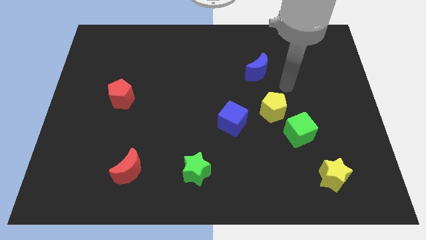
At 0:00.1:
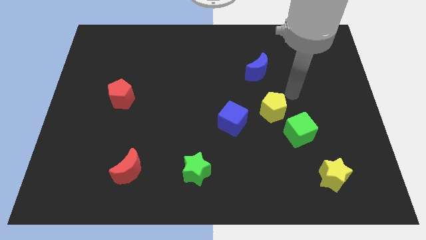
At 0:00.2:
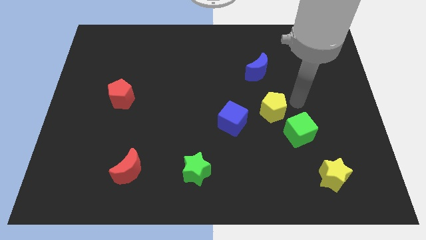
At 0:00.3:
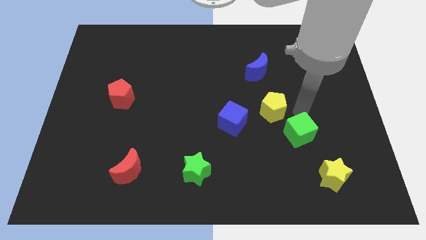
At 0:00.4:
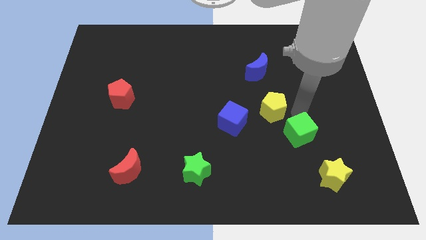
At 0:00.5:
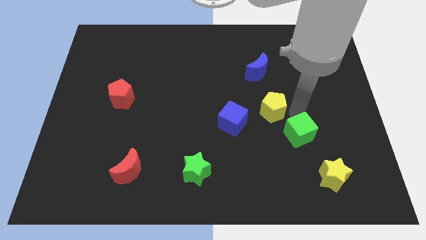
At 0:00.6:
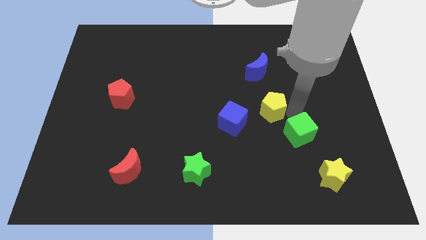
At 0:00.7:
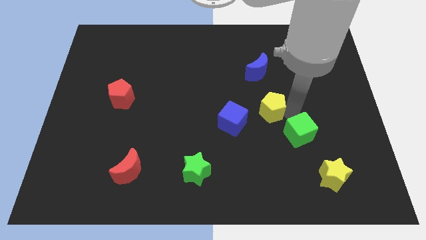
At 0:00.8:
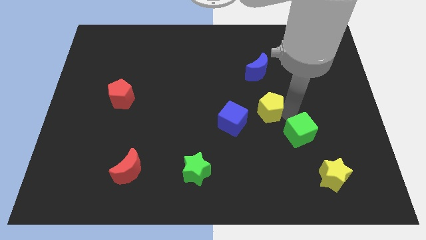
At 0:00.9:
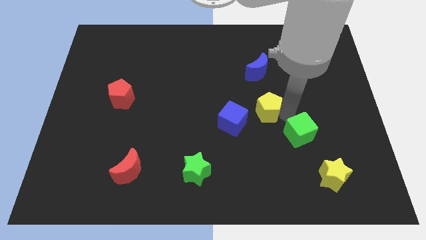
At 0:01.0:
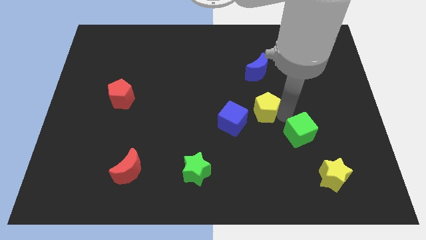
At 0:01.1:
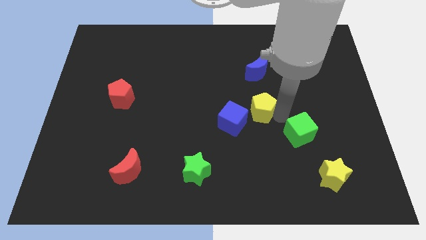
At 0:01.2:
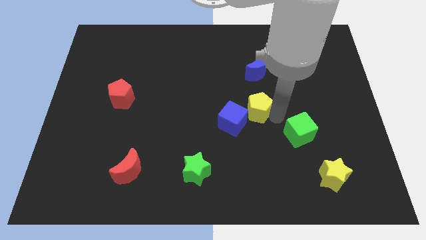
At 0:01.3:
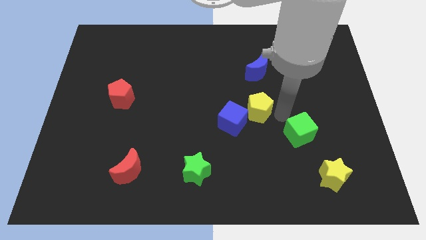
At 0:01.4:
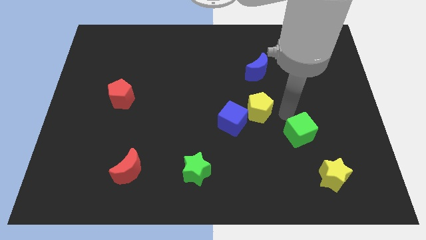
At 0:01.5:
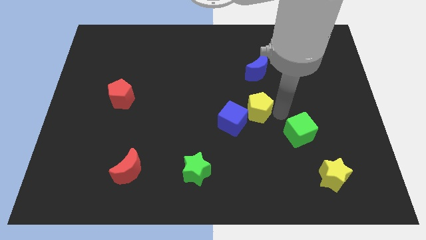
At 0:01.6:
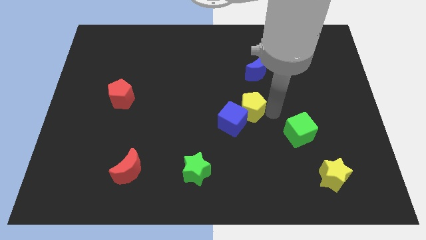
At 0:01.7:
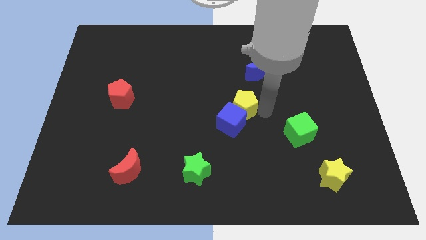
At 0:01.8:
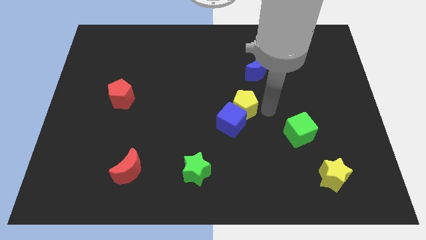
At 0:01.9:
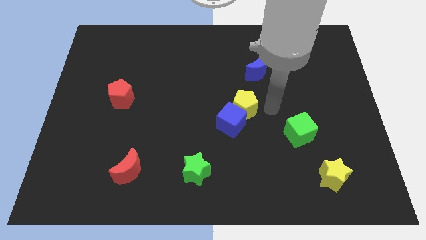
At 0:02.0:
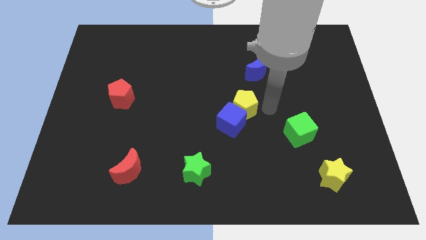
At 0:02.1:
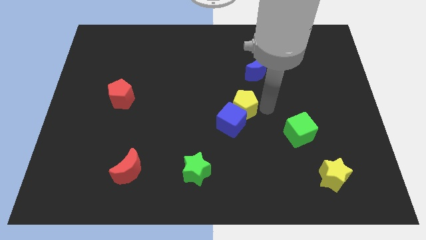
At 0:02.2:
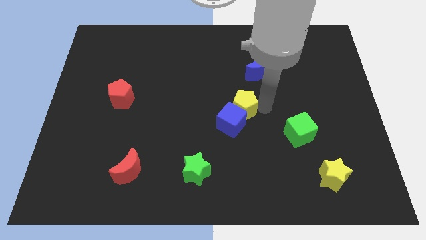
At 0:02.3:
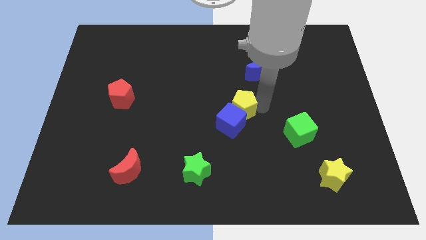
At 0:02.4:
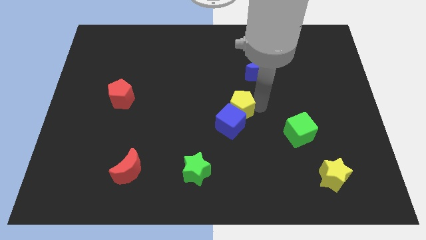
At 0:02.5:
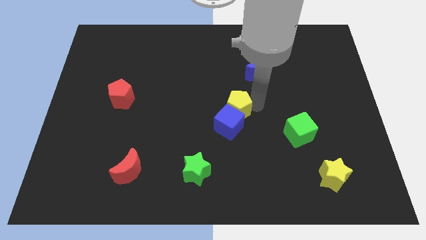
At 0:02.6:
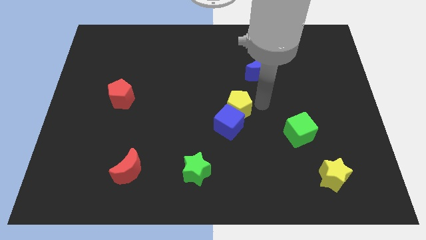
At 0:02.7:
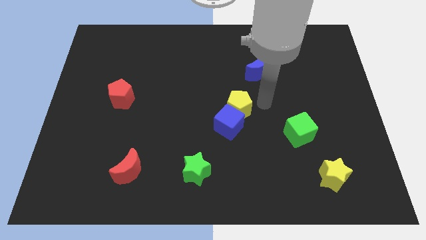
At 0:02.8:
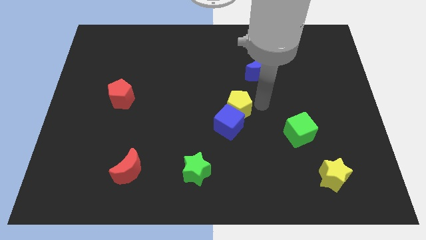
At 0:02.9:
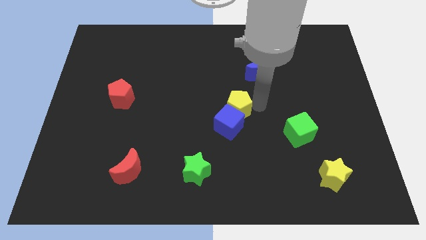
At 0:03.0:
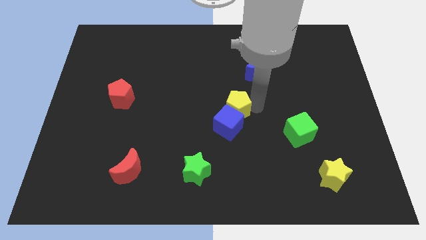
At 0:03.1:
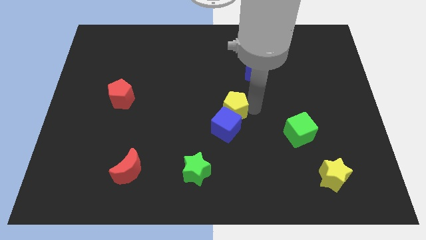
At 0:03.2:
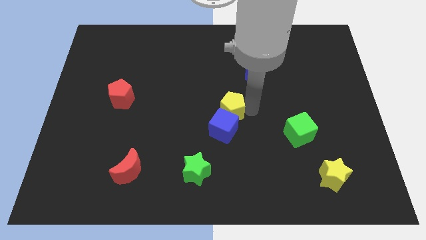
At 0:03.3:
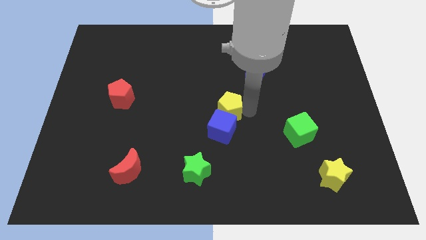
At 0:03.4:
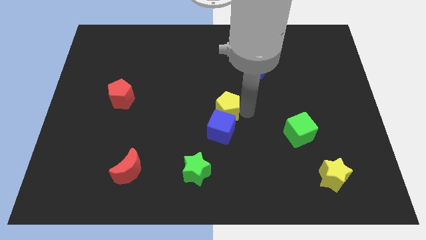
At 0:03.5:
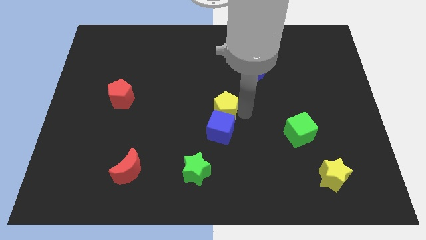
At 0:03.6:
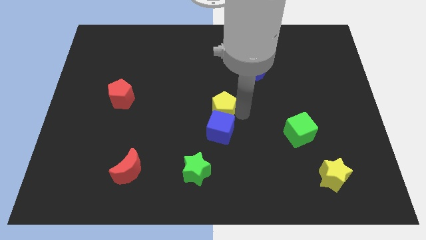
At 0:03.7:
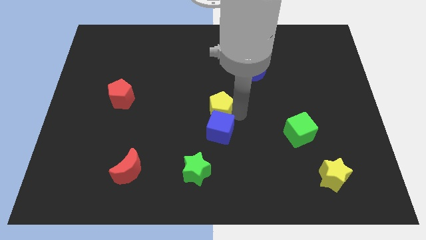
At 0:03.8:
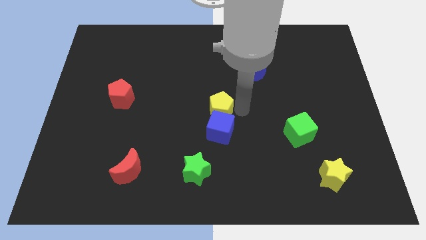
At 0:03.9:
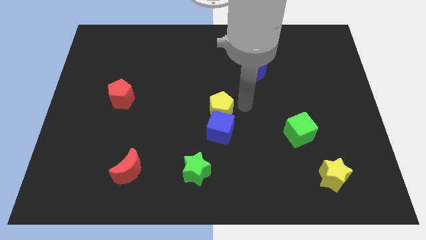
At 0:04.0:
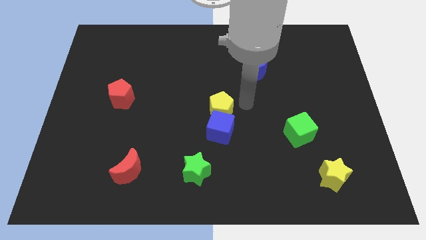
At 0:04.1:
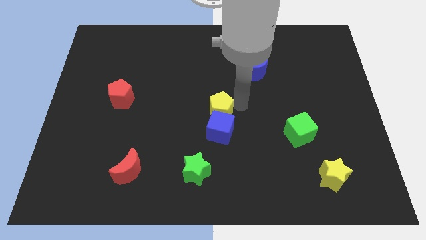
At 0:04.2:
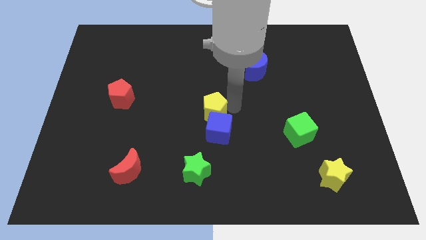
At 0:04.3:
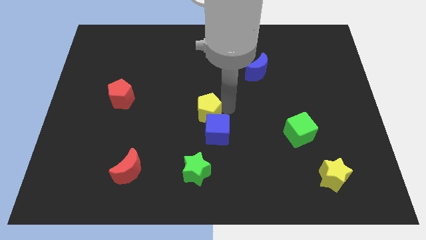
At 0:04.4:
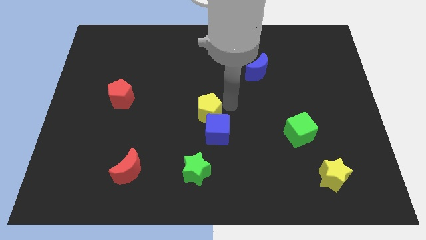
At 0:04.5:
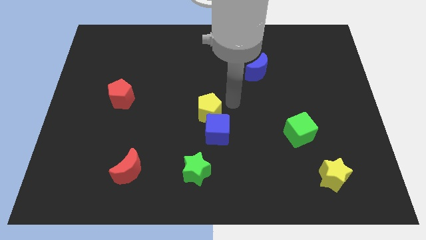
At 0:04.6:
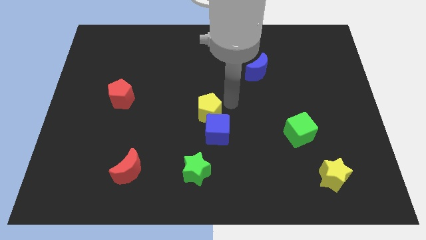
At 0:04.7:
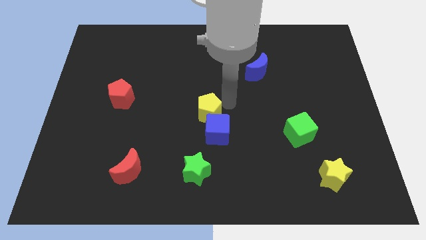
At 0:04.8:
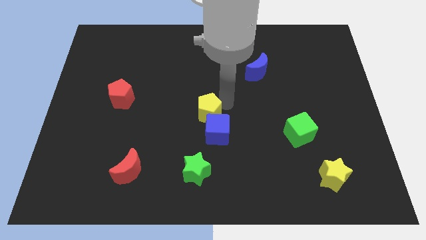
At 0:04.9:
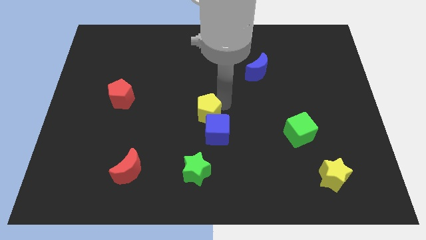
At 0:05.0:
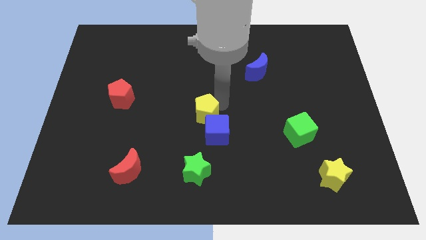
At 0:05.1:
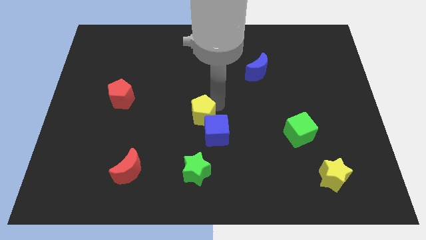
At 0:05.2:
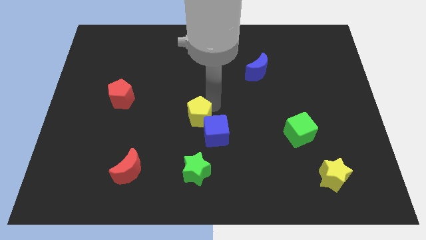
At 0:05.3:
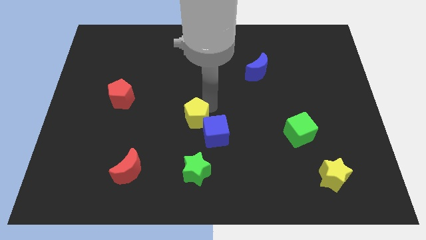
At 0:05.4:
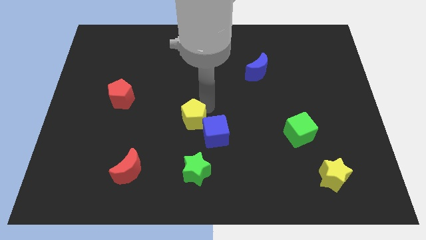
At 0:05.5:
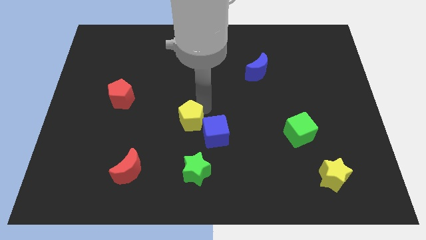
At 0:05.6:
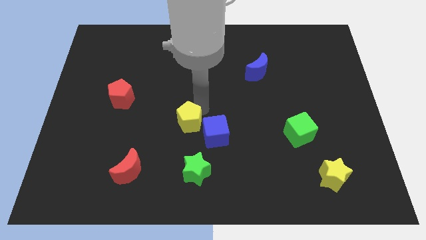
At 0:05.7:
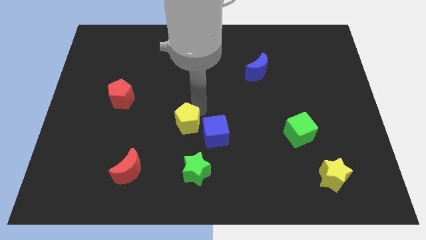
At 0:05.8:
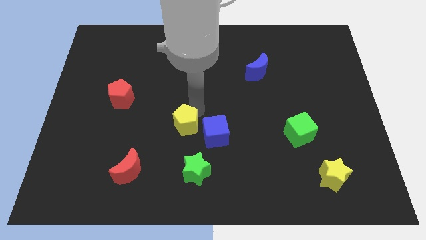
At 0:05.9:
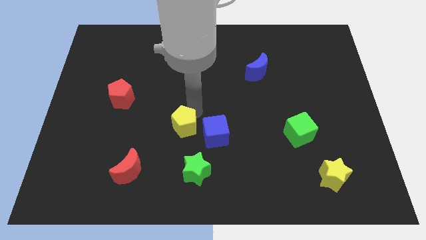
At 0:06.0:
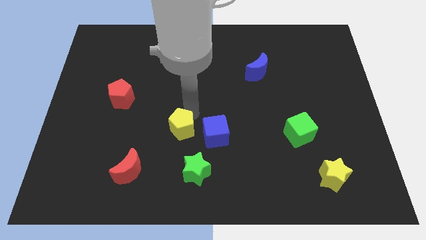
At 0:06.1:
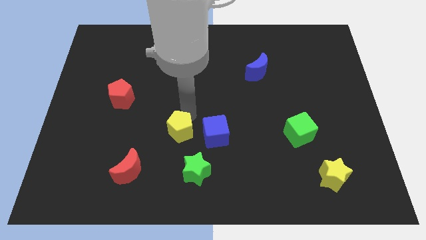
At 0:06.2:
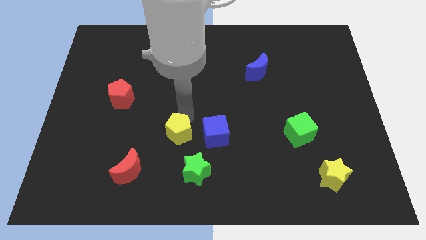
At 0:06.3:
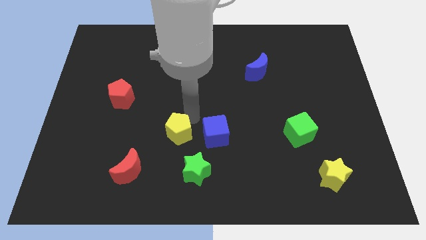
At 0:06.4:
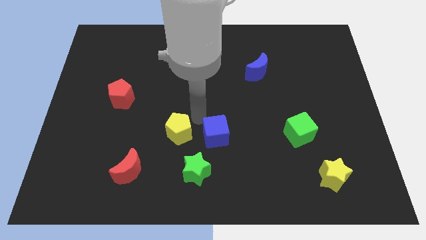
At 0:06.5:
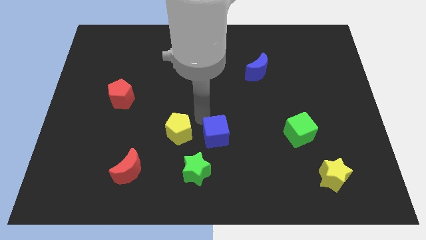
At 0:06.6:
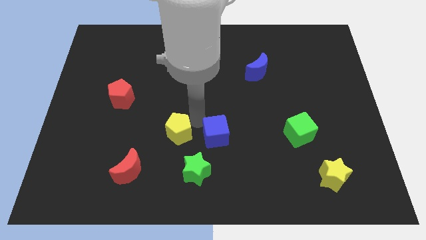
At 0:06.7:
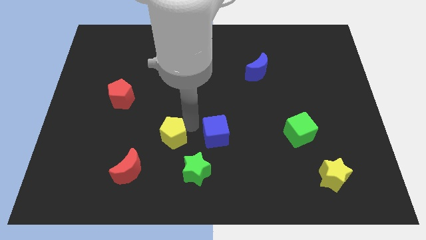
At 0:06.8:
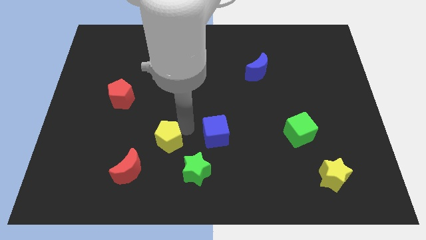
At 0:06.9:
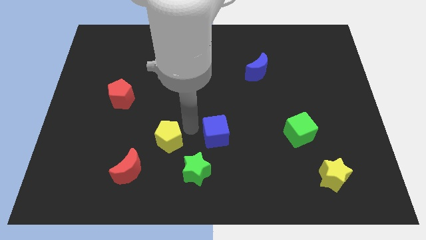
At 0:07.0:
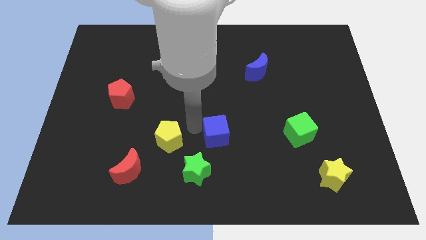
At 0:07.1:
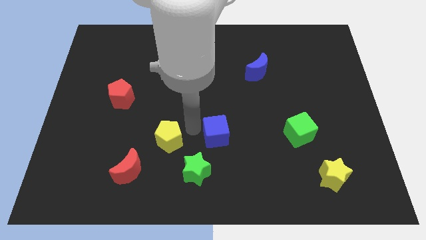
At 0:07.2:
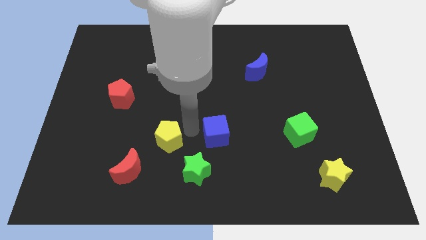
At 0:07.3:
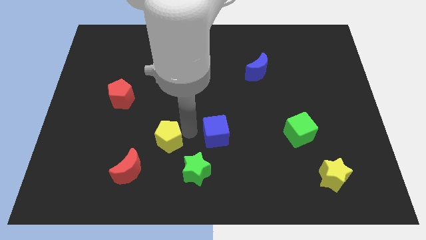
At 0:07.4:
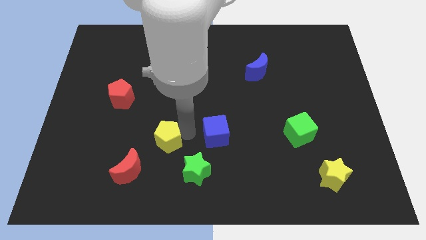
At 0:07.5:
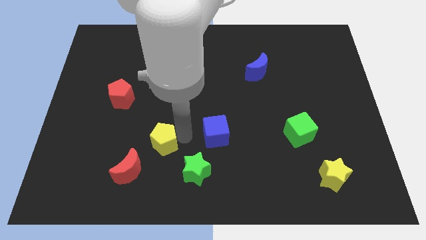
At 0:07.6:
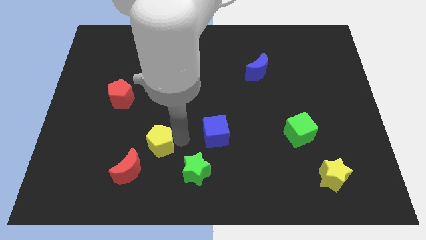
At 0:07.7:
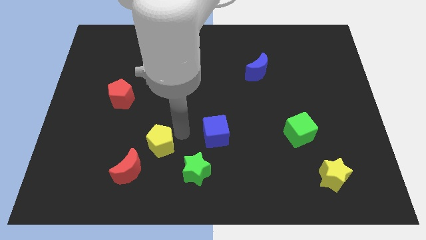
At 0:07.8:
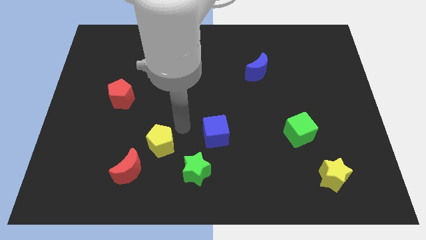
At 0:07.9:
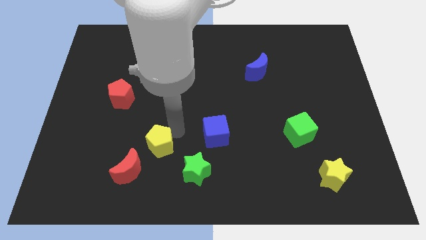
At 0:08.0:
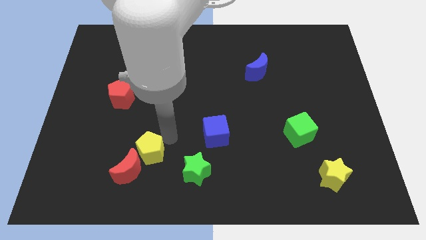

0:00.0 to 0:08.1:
move the yellow pentagon to the red moon
